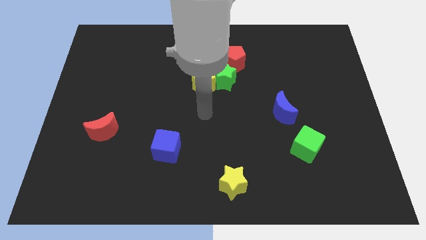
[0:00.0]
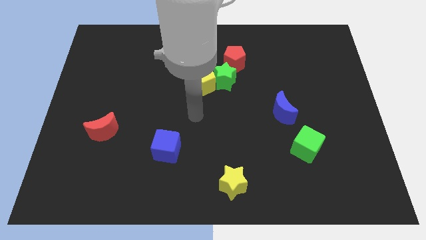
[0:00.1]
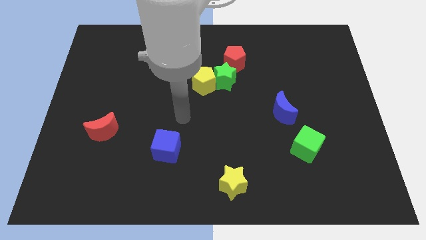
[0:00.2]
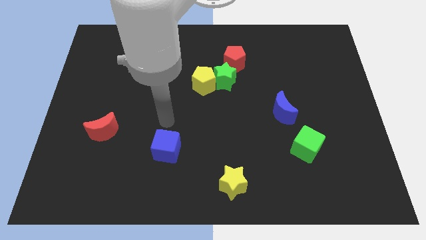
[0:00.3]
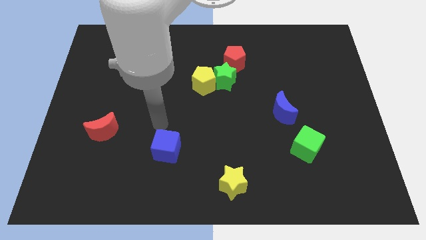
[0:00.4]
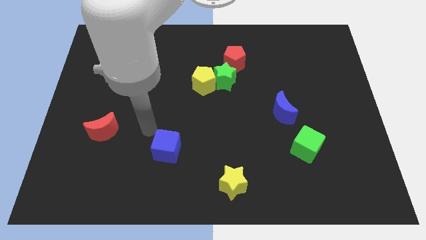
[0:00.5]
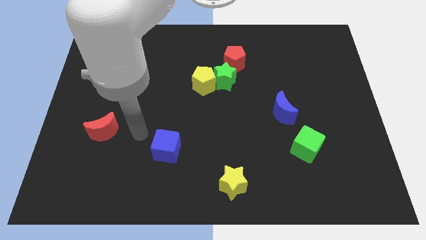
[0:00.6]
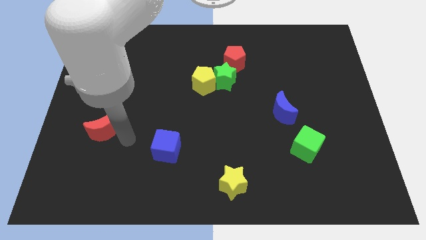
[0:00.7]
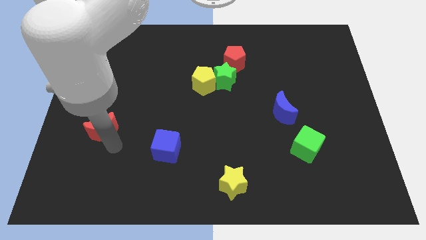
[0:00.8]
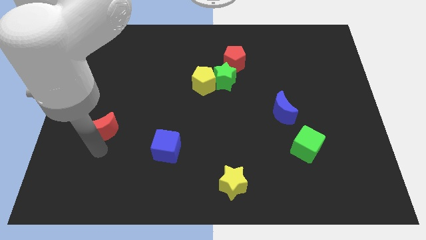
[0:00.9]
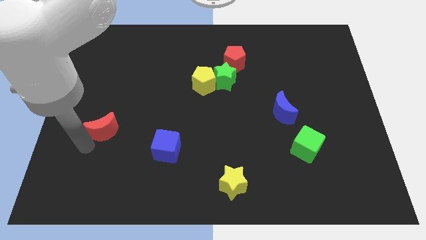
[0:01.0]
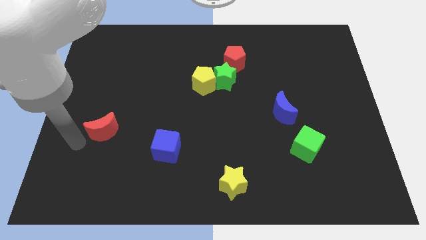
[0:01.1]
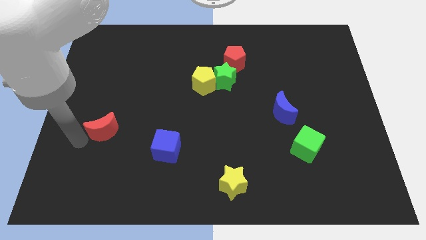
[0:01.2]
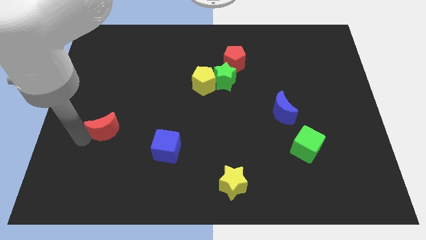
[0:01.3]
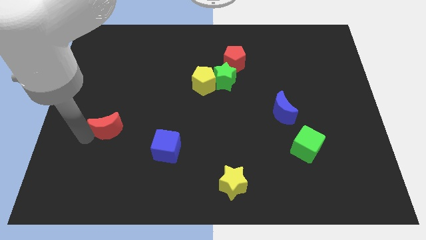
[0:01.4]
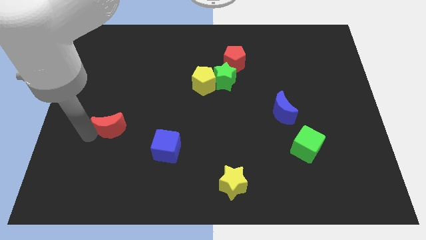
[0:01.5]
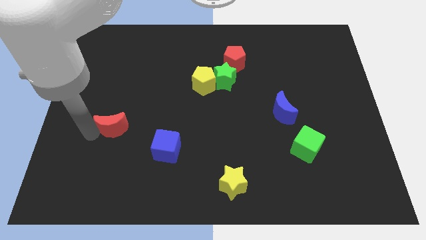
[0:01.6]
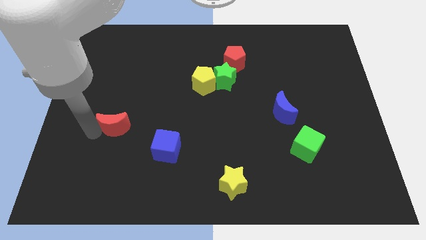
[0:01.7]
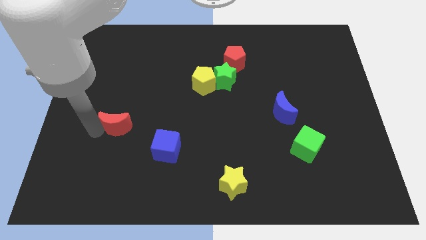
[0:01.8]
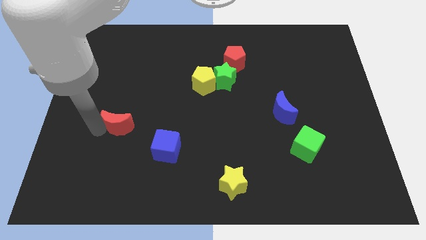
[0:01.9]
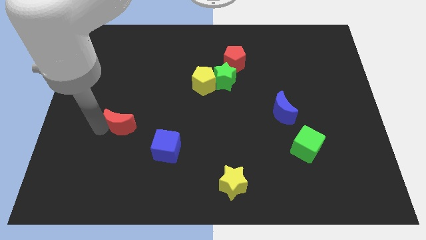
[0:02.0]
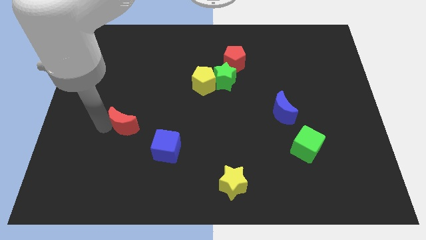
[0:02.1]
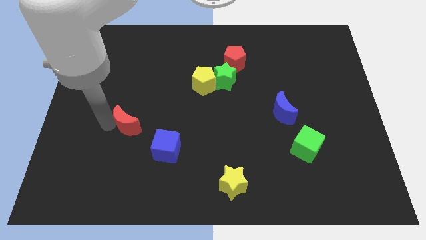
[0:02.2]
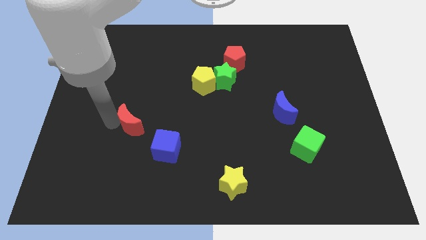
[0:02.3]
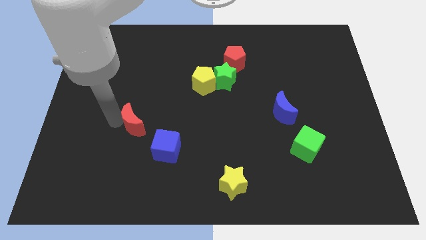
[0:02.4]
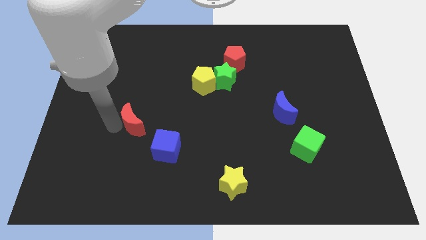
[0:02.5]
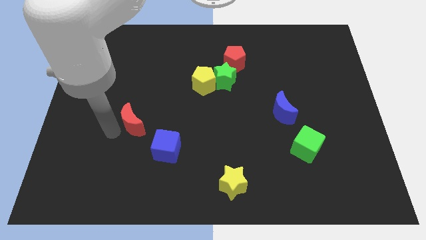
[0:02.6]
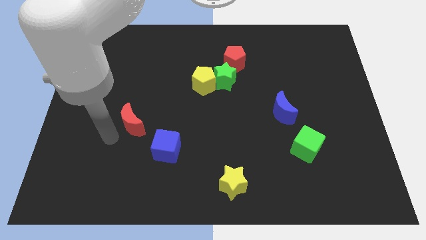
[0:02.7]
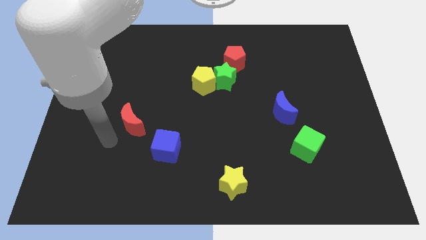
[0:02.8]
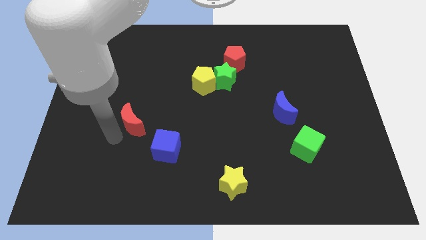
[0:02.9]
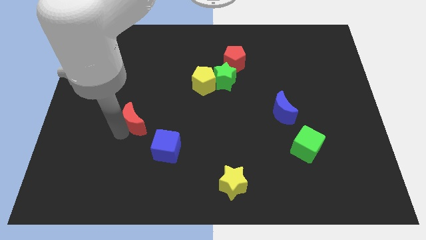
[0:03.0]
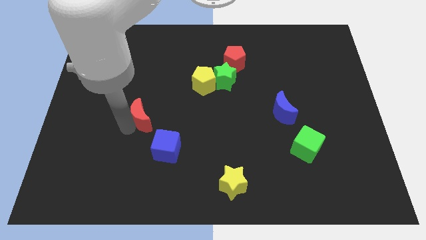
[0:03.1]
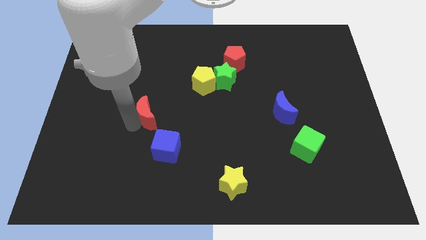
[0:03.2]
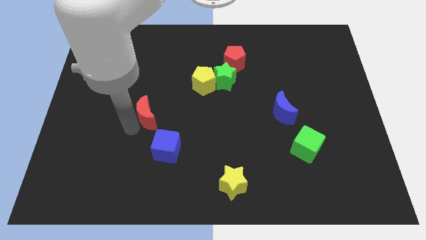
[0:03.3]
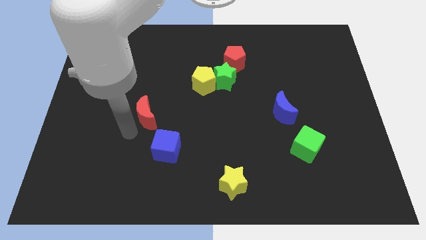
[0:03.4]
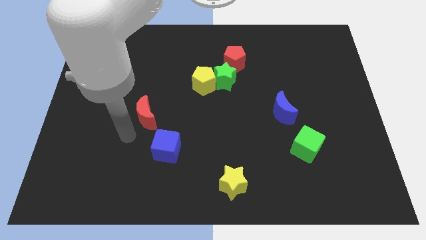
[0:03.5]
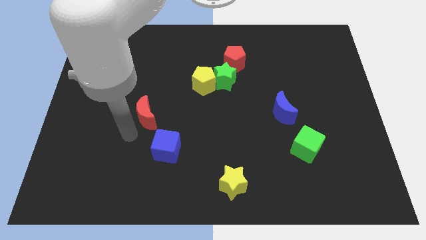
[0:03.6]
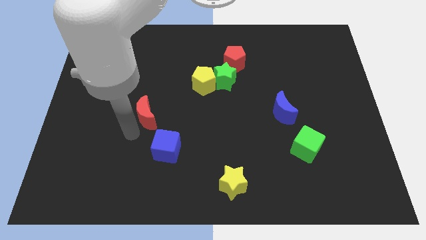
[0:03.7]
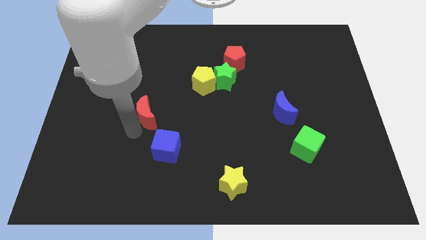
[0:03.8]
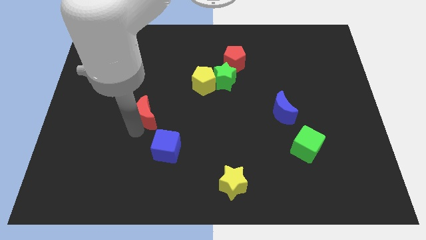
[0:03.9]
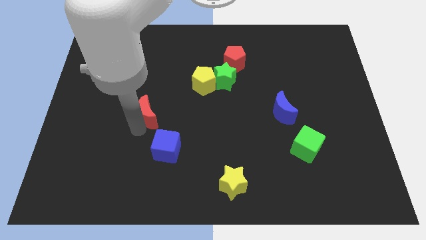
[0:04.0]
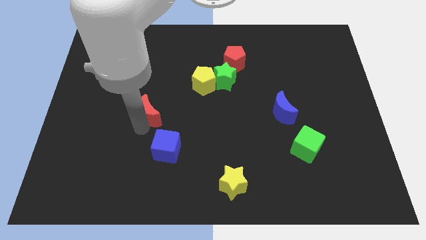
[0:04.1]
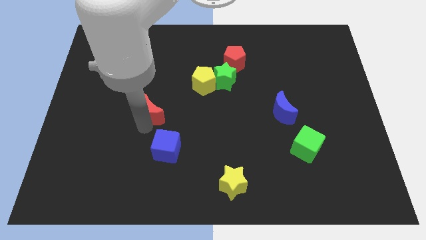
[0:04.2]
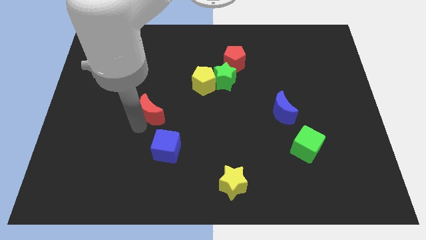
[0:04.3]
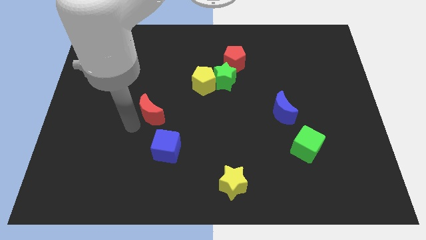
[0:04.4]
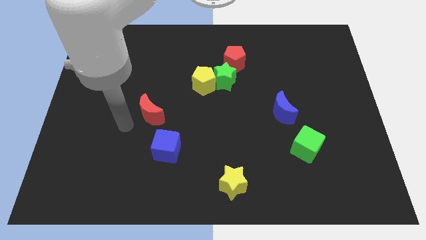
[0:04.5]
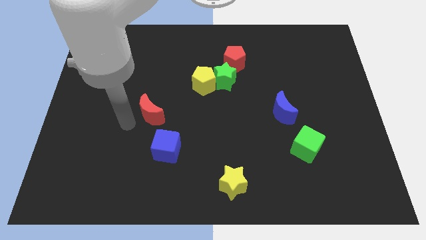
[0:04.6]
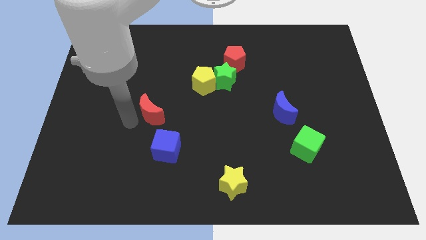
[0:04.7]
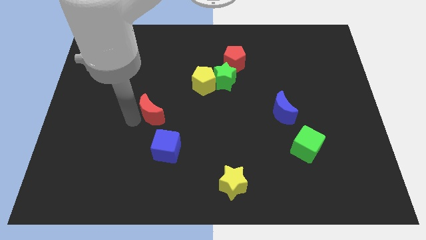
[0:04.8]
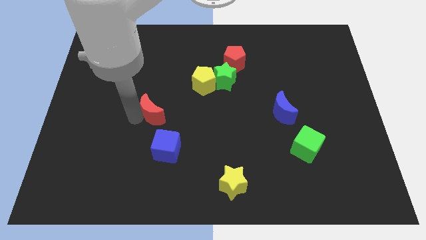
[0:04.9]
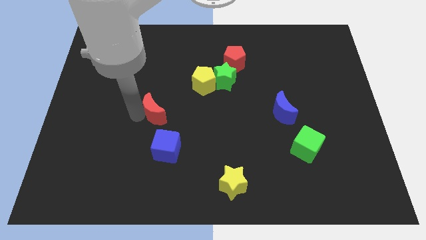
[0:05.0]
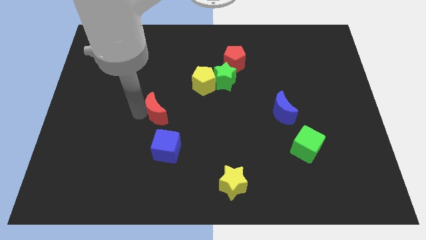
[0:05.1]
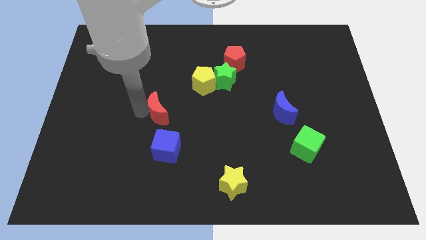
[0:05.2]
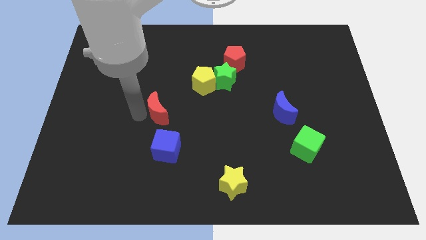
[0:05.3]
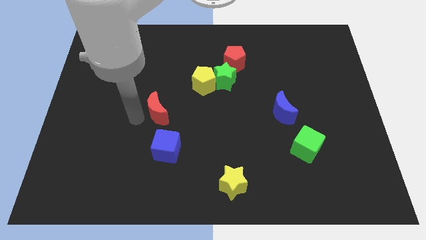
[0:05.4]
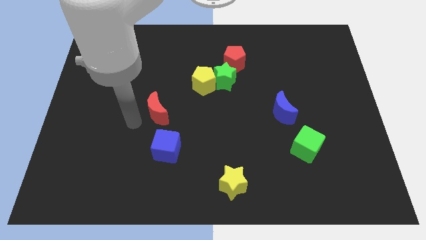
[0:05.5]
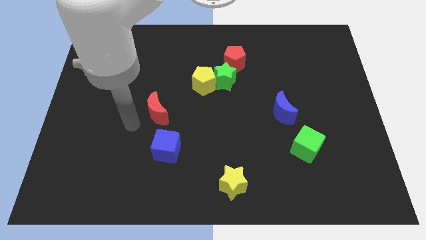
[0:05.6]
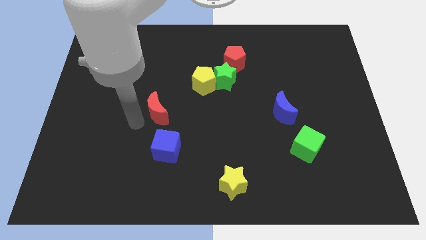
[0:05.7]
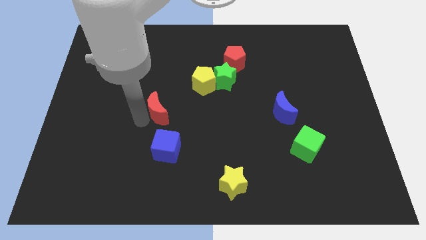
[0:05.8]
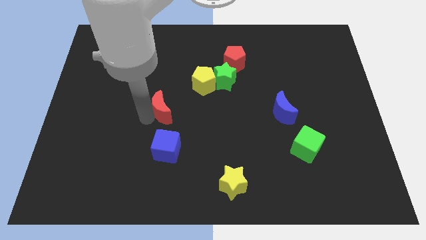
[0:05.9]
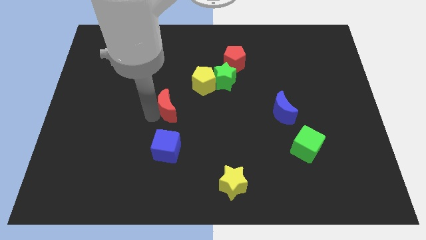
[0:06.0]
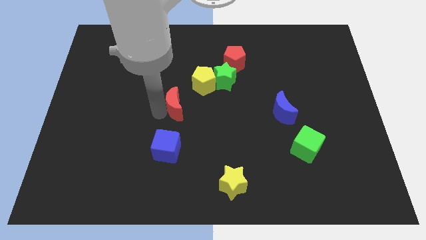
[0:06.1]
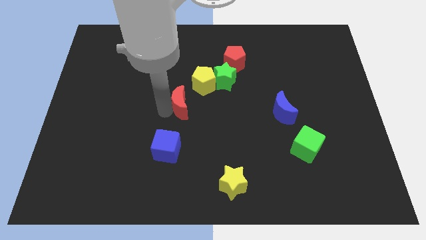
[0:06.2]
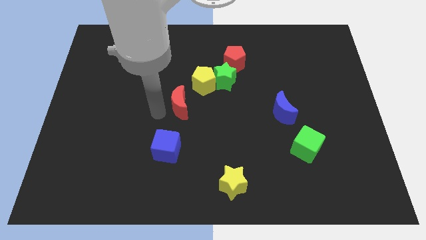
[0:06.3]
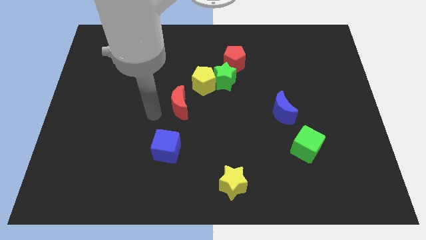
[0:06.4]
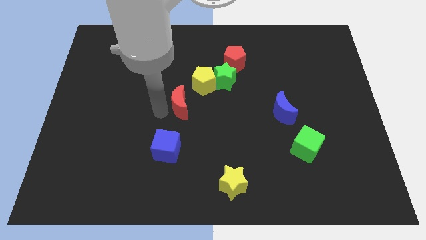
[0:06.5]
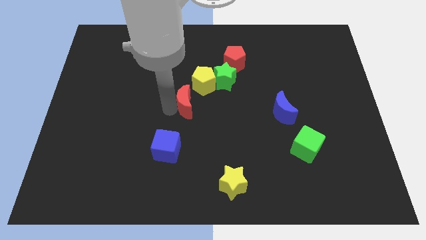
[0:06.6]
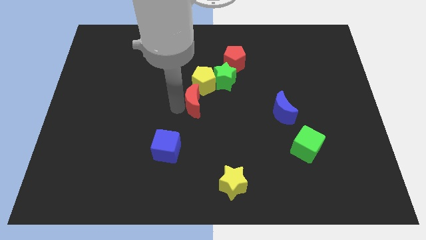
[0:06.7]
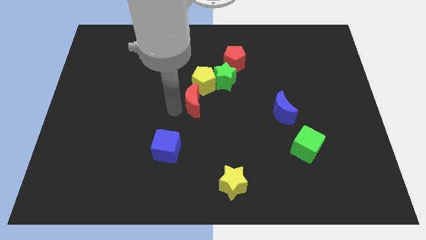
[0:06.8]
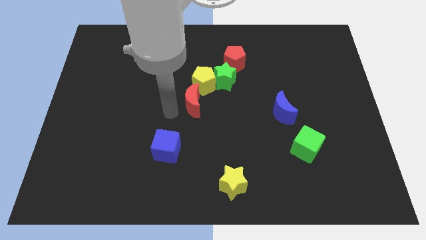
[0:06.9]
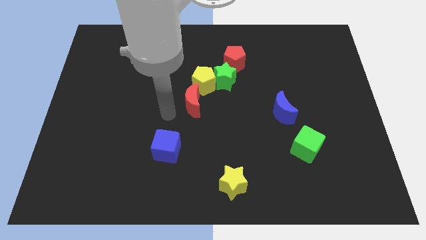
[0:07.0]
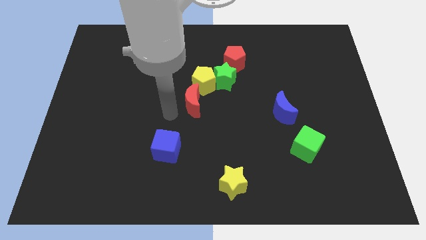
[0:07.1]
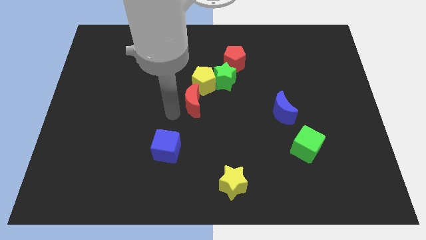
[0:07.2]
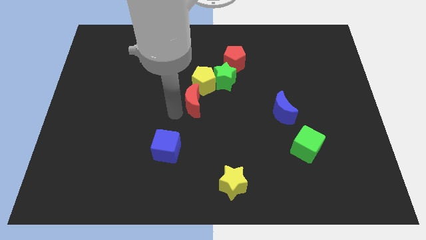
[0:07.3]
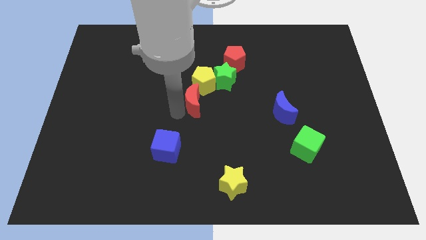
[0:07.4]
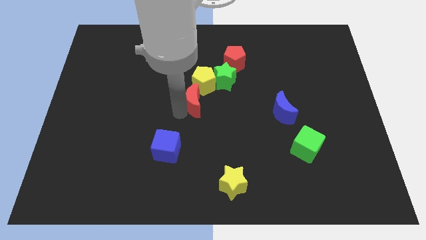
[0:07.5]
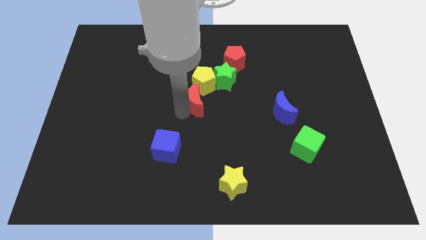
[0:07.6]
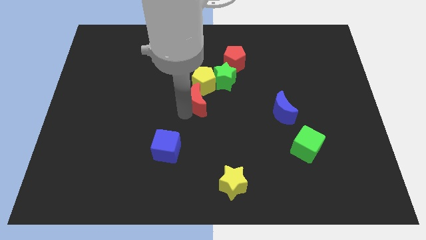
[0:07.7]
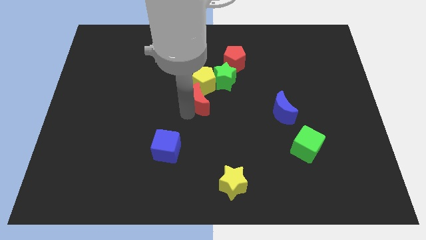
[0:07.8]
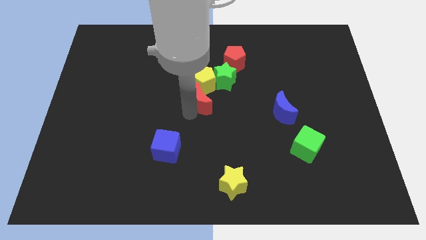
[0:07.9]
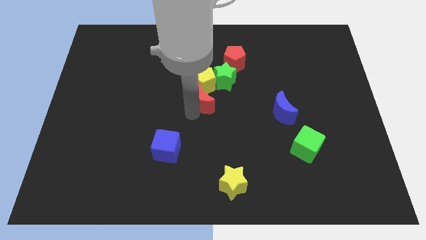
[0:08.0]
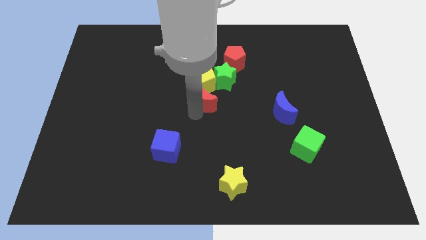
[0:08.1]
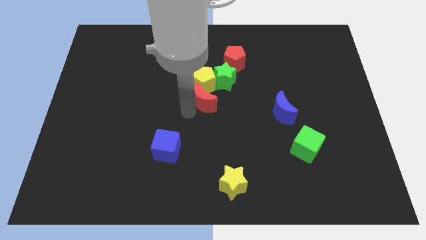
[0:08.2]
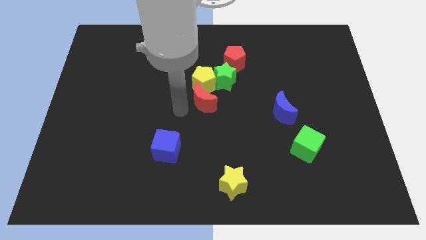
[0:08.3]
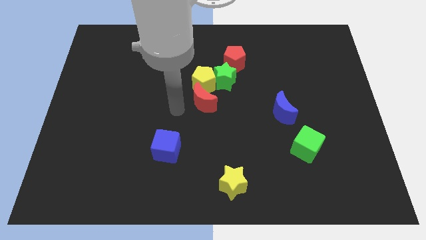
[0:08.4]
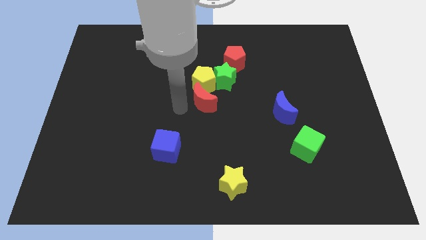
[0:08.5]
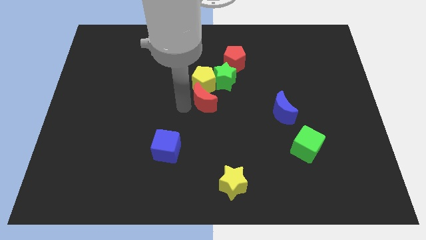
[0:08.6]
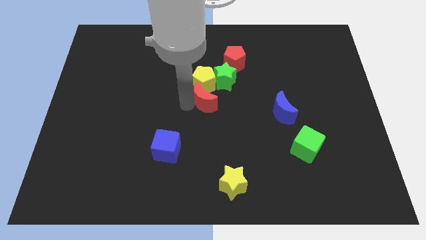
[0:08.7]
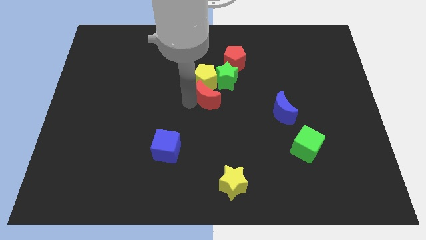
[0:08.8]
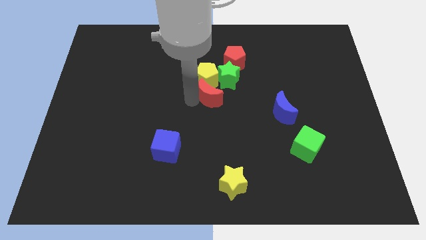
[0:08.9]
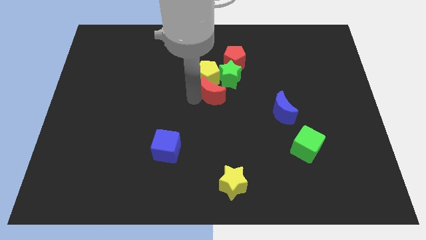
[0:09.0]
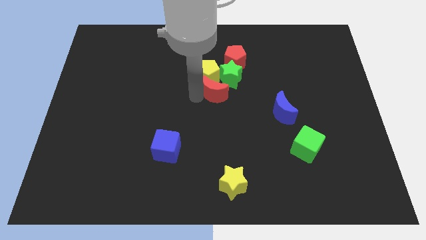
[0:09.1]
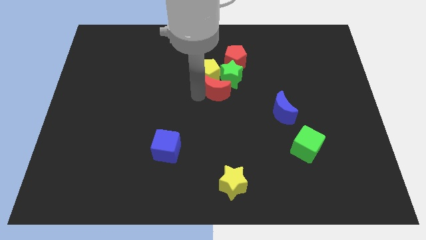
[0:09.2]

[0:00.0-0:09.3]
put the red moon close to the green star
